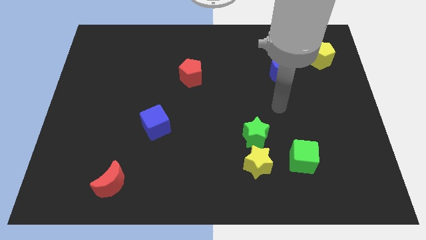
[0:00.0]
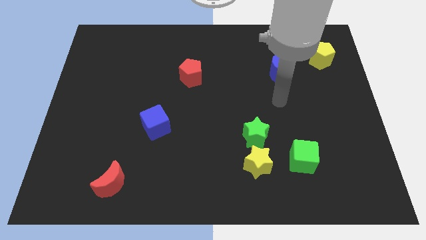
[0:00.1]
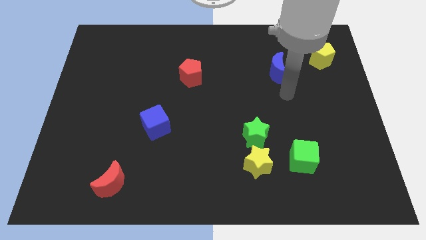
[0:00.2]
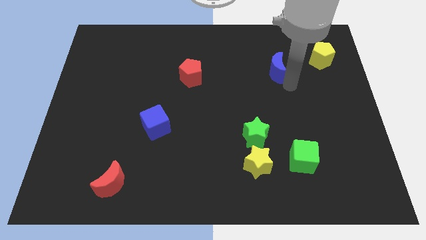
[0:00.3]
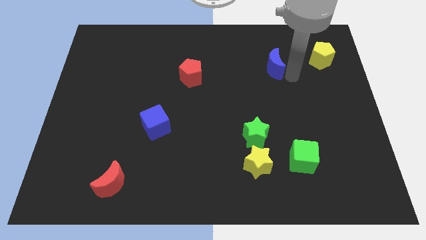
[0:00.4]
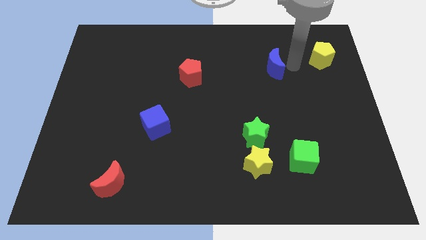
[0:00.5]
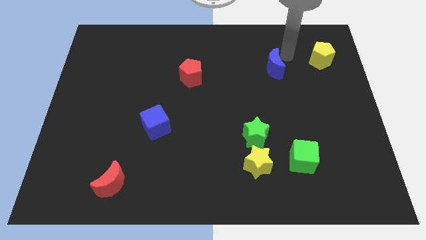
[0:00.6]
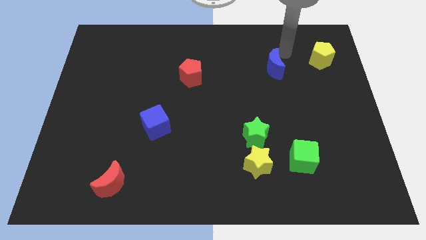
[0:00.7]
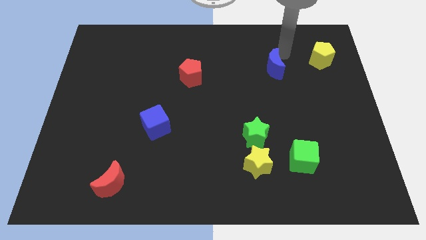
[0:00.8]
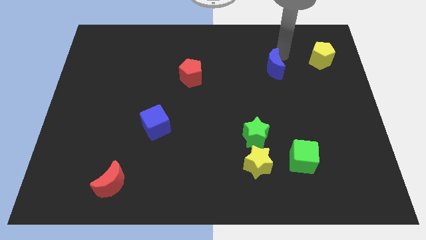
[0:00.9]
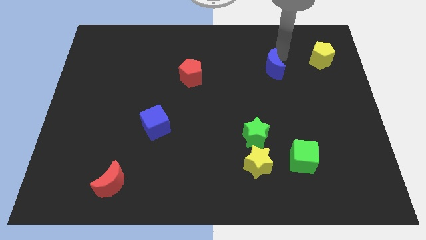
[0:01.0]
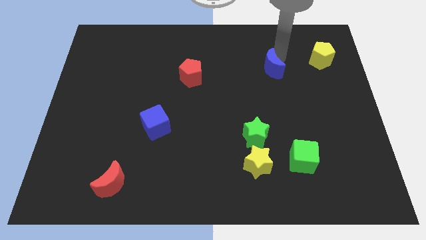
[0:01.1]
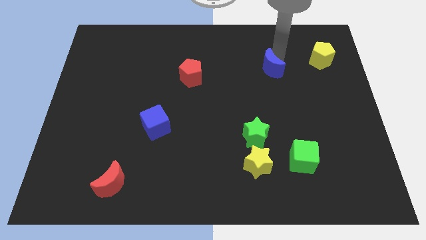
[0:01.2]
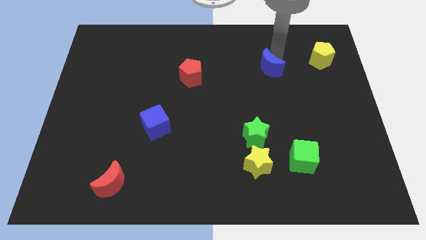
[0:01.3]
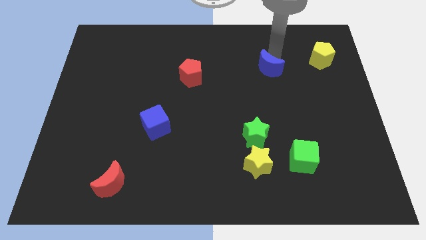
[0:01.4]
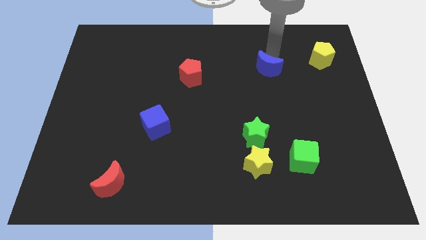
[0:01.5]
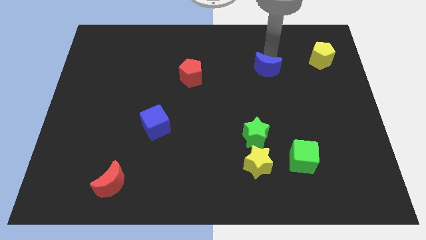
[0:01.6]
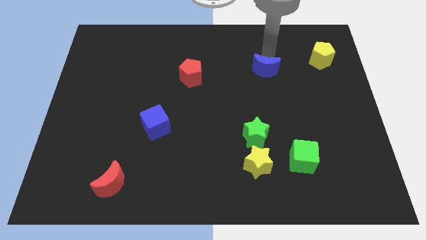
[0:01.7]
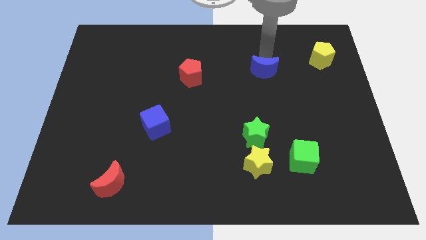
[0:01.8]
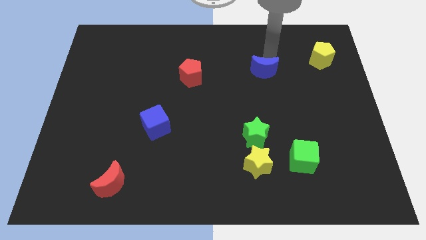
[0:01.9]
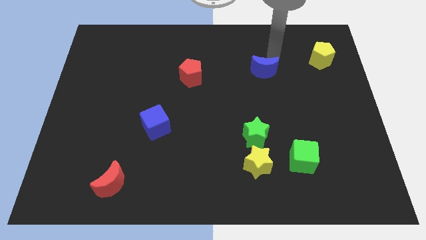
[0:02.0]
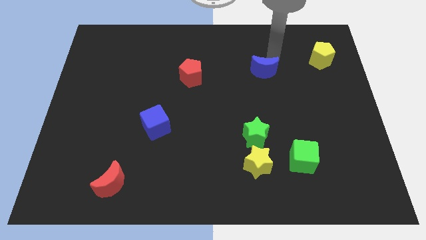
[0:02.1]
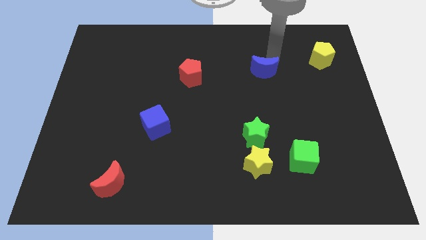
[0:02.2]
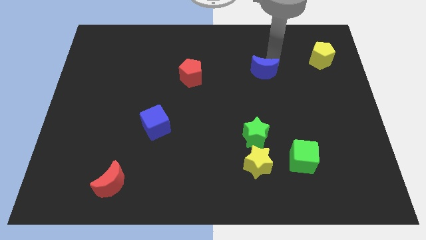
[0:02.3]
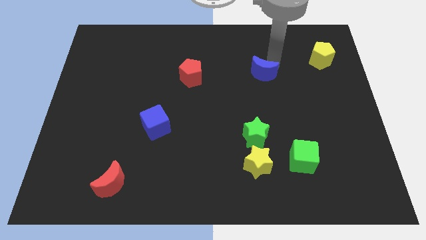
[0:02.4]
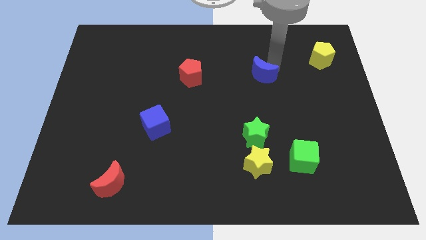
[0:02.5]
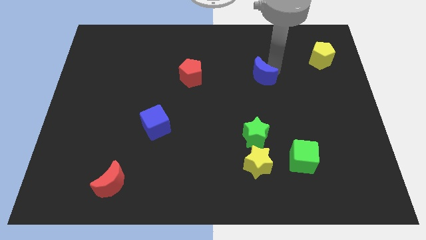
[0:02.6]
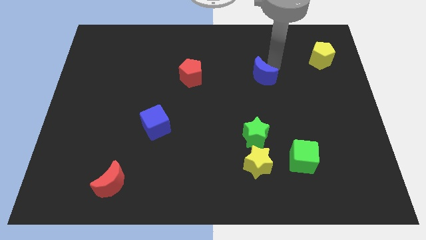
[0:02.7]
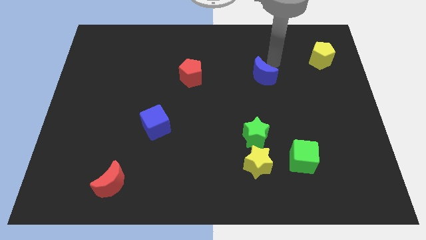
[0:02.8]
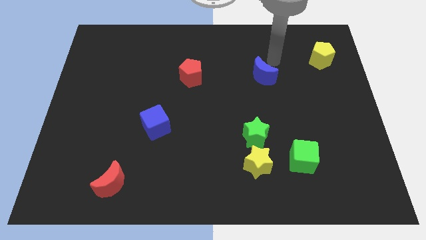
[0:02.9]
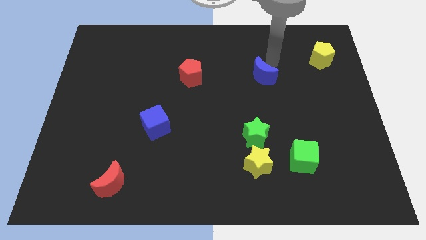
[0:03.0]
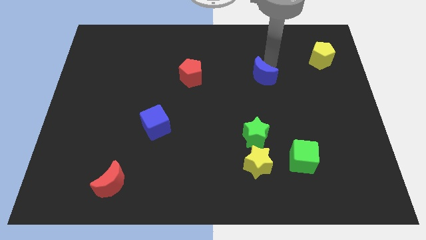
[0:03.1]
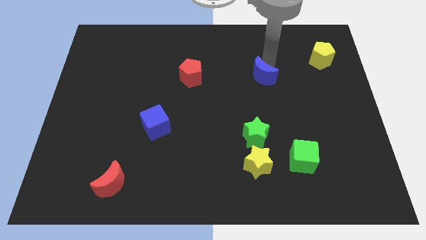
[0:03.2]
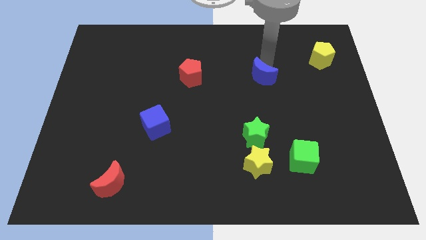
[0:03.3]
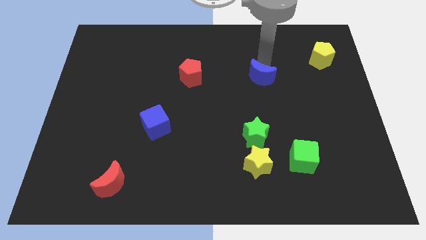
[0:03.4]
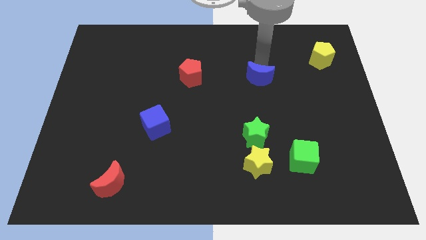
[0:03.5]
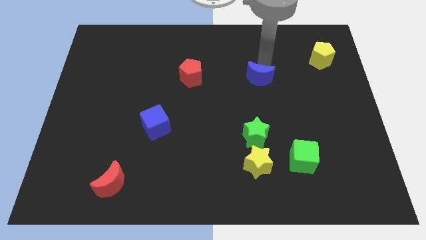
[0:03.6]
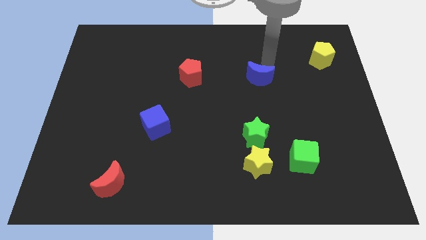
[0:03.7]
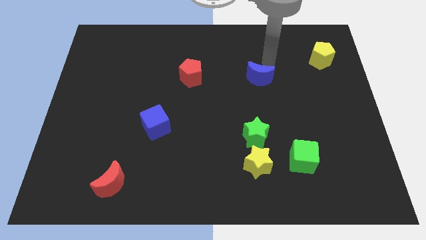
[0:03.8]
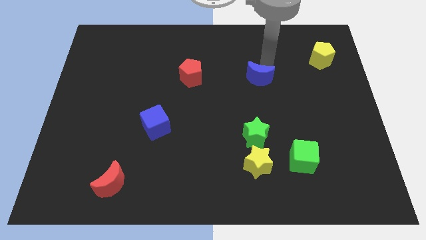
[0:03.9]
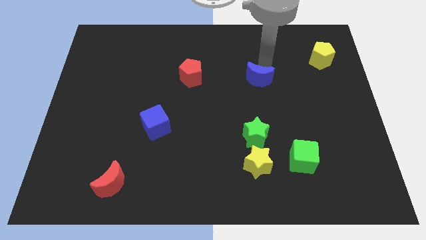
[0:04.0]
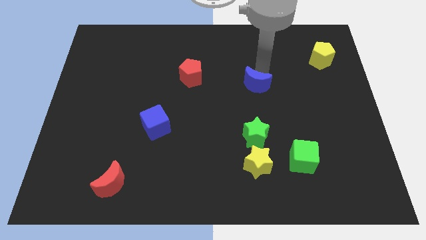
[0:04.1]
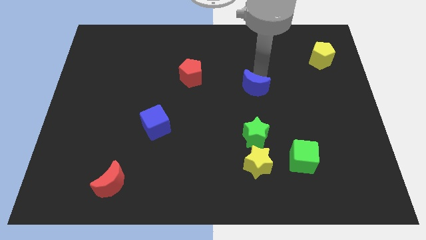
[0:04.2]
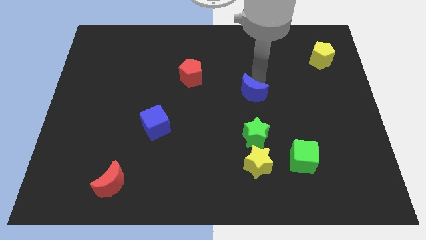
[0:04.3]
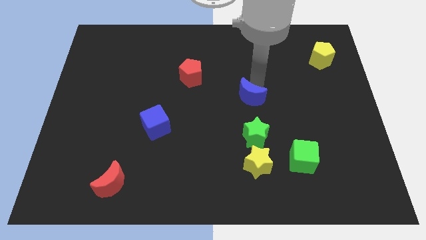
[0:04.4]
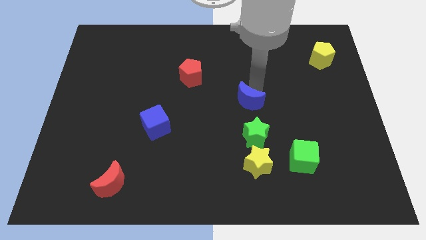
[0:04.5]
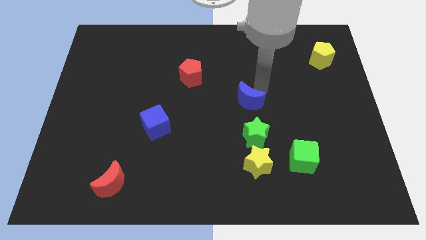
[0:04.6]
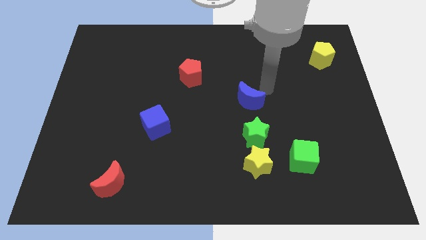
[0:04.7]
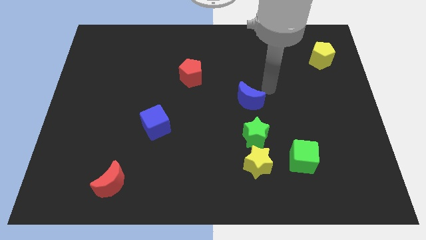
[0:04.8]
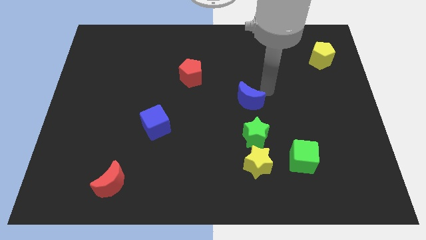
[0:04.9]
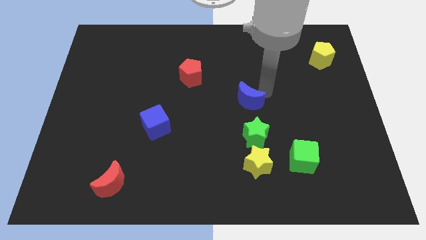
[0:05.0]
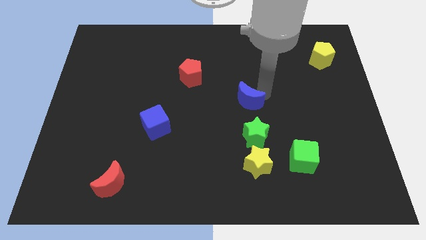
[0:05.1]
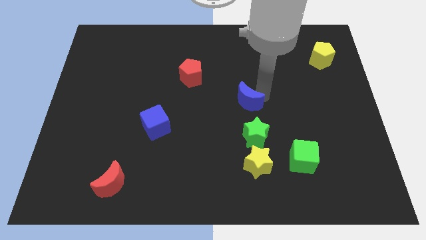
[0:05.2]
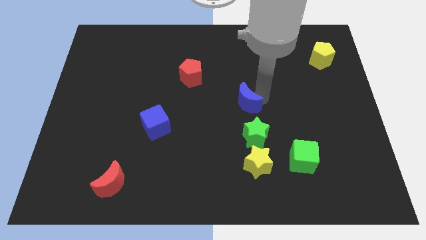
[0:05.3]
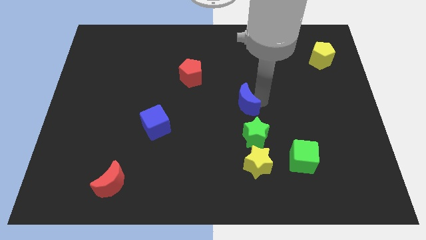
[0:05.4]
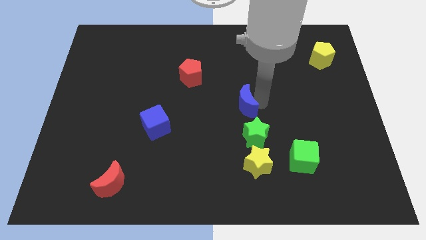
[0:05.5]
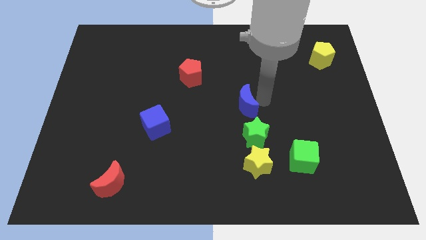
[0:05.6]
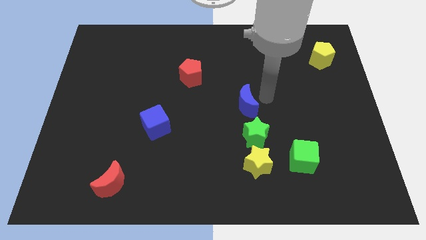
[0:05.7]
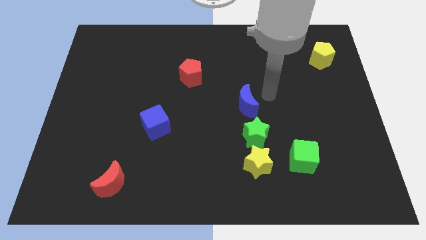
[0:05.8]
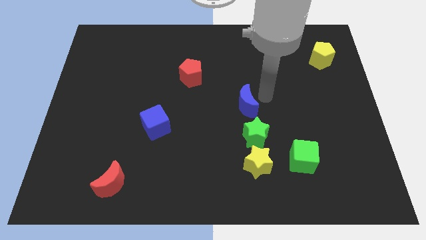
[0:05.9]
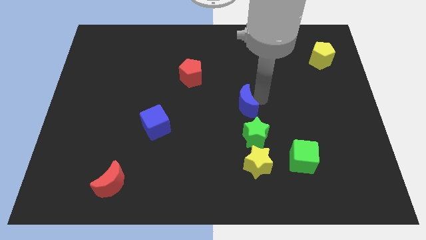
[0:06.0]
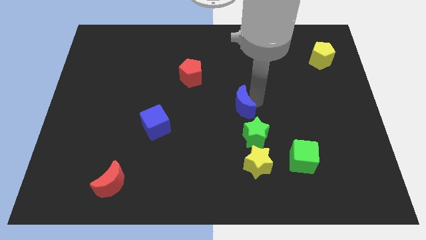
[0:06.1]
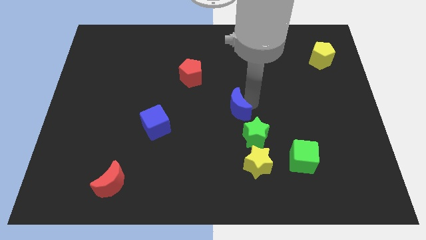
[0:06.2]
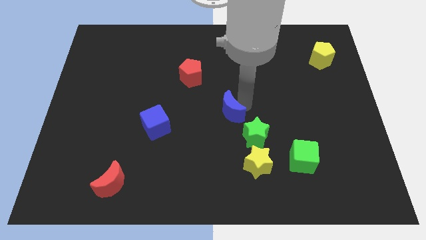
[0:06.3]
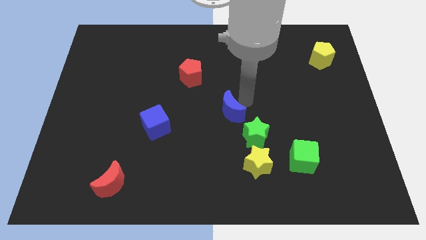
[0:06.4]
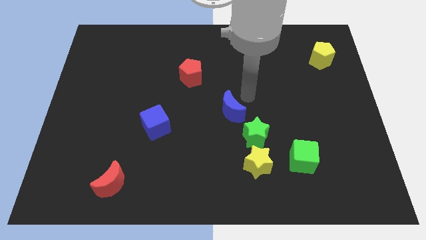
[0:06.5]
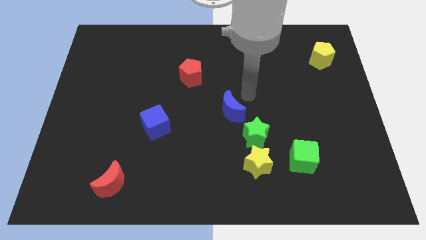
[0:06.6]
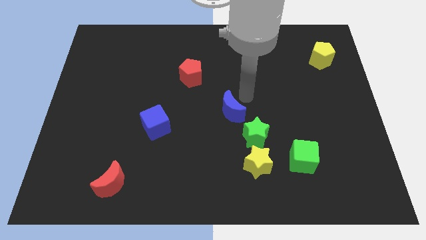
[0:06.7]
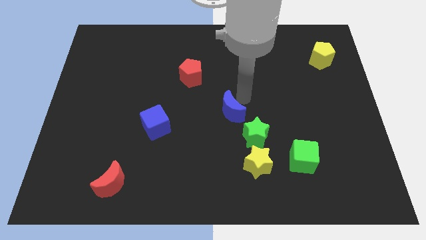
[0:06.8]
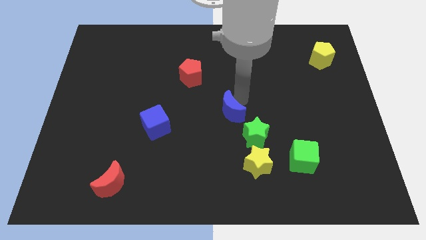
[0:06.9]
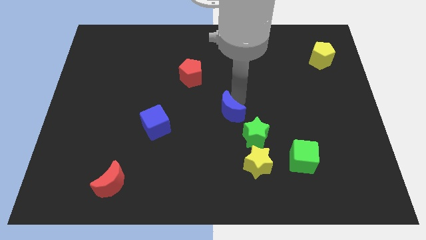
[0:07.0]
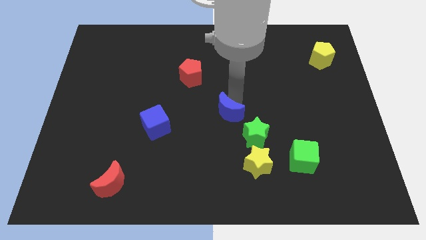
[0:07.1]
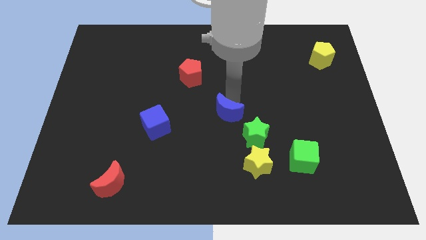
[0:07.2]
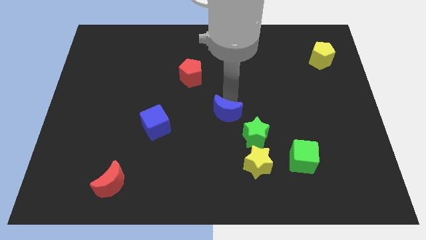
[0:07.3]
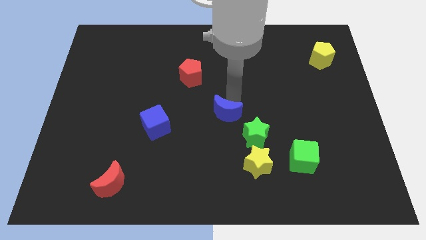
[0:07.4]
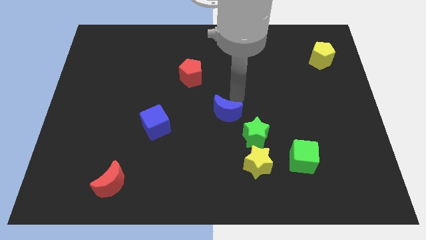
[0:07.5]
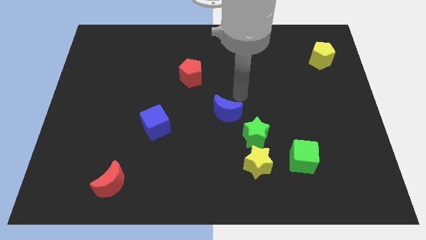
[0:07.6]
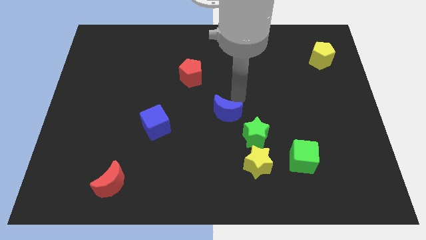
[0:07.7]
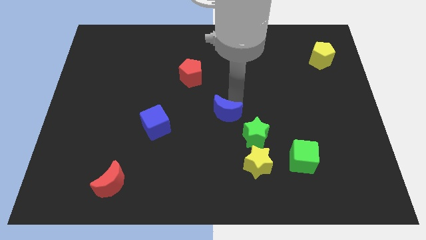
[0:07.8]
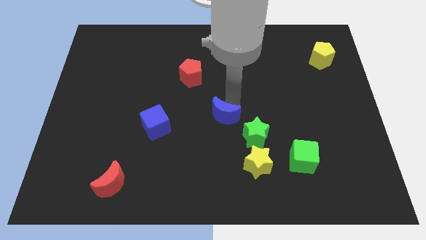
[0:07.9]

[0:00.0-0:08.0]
push the blue moon diagonally down and left
